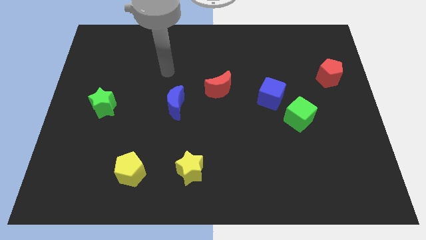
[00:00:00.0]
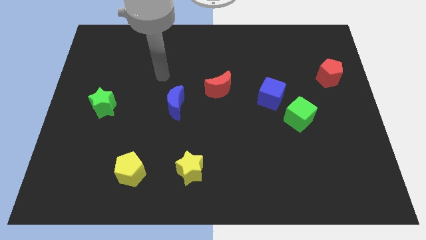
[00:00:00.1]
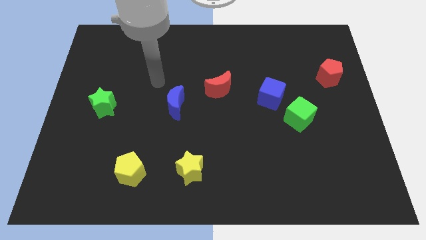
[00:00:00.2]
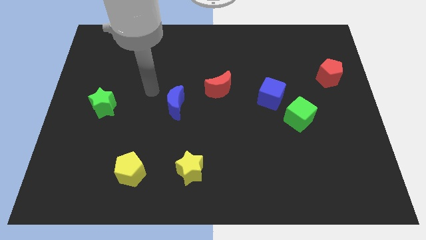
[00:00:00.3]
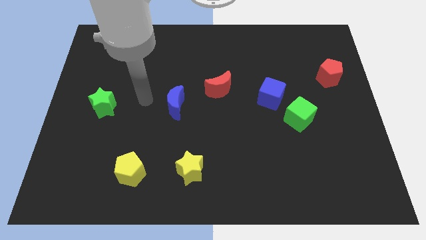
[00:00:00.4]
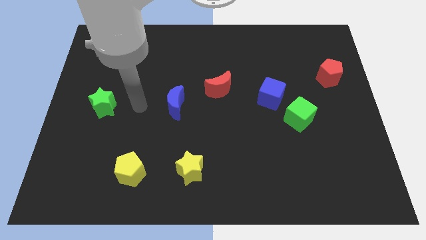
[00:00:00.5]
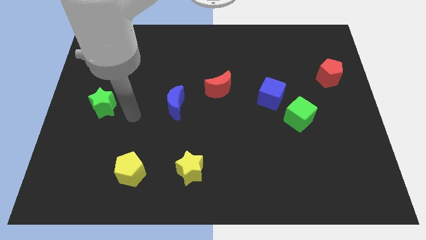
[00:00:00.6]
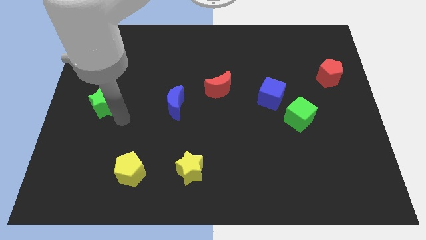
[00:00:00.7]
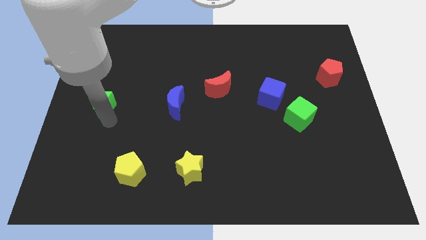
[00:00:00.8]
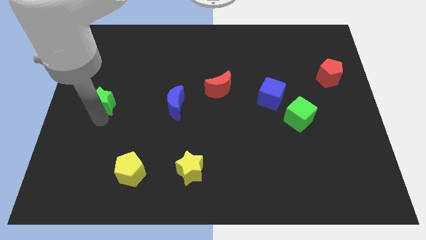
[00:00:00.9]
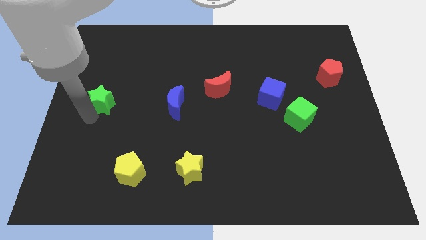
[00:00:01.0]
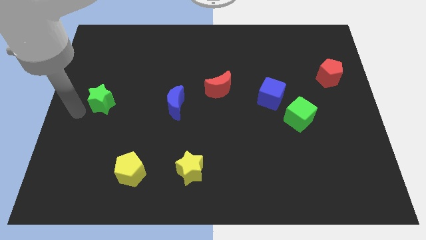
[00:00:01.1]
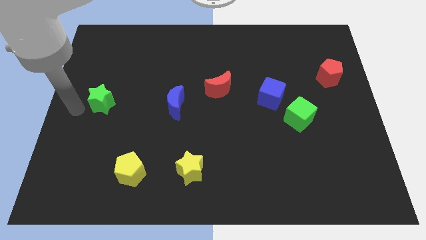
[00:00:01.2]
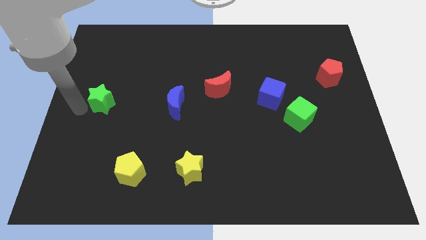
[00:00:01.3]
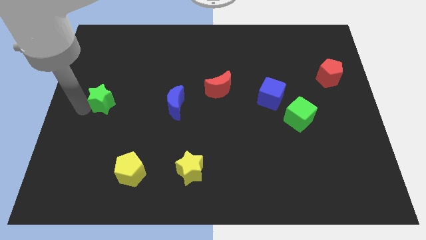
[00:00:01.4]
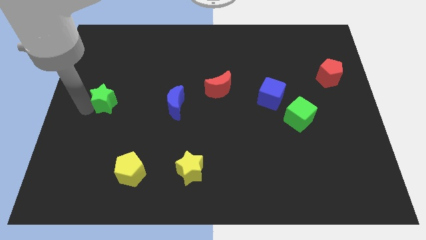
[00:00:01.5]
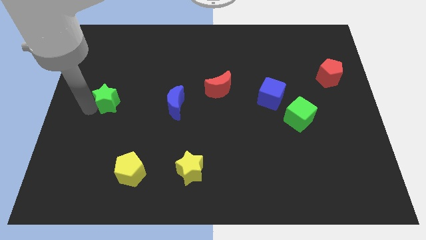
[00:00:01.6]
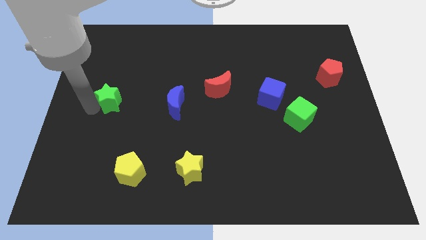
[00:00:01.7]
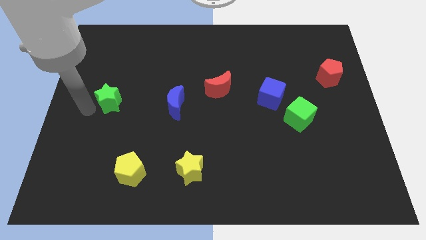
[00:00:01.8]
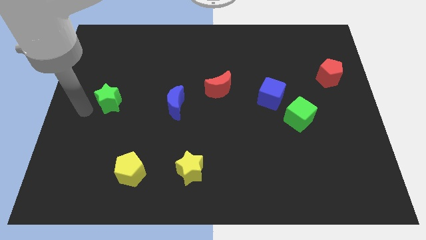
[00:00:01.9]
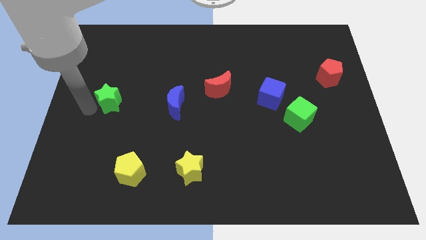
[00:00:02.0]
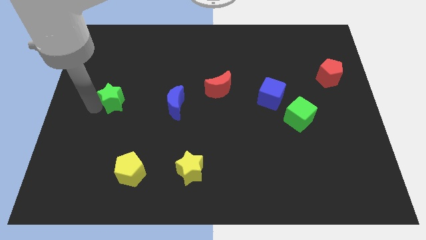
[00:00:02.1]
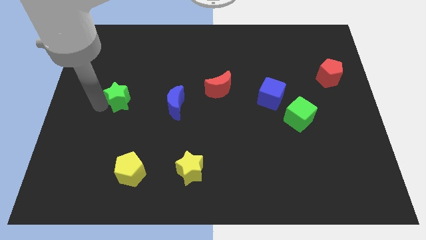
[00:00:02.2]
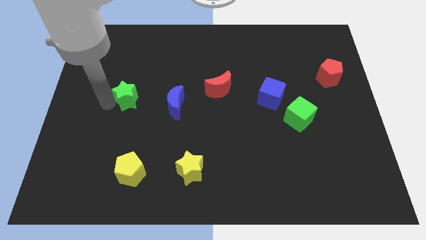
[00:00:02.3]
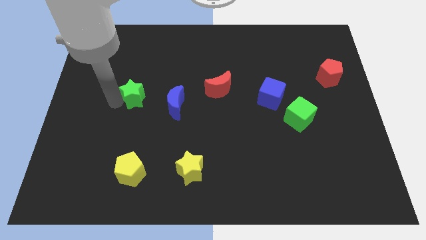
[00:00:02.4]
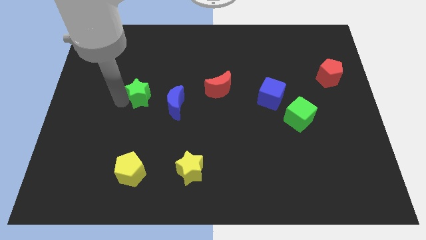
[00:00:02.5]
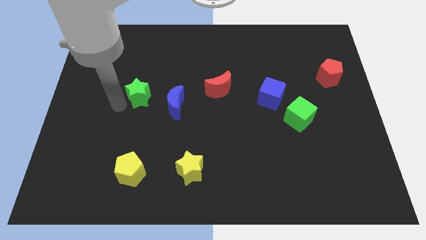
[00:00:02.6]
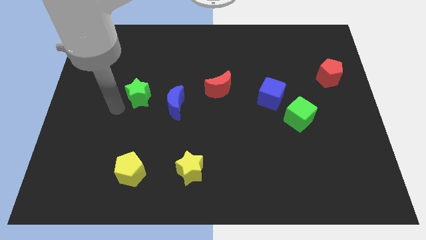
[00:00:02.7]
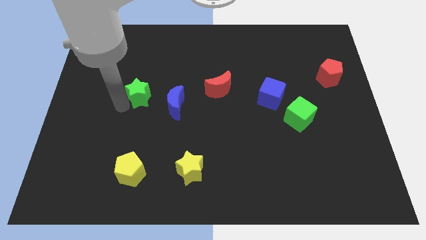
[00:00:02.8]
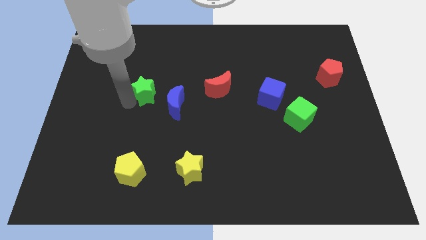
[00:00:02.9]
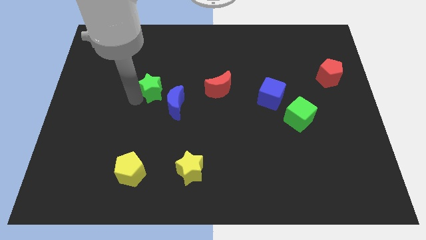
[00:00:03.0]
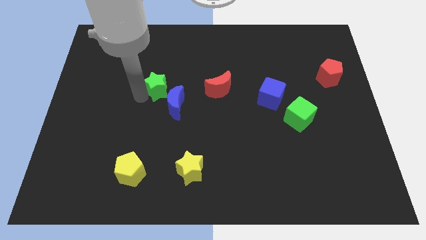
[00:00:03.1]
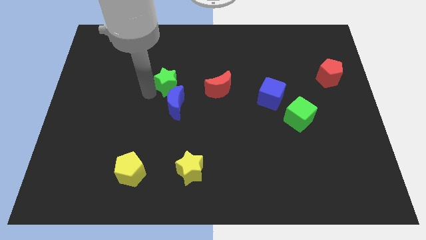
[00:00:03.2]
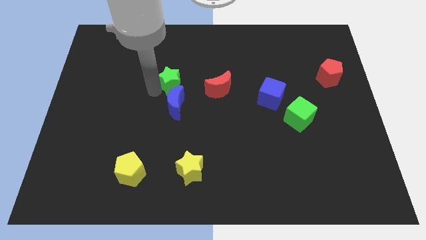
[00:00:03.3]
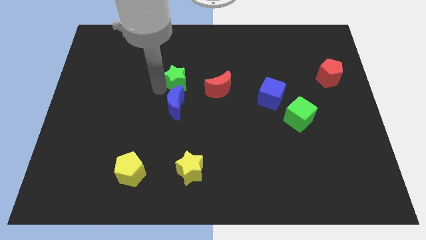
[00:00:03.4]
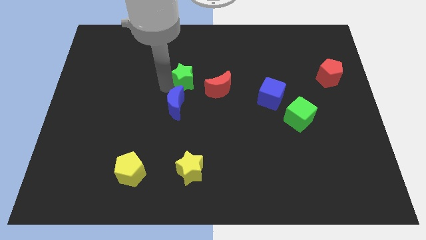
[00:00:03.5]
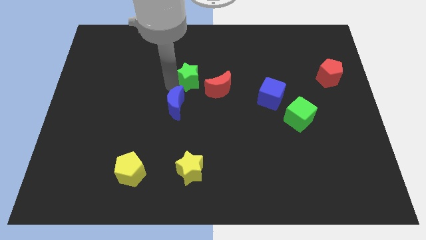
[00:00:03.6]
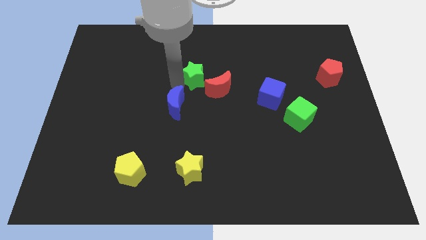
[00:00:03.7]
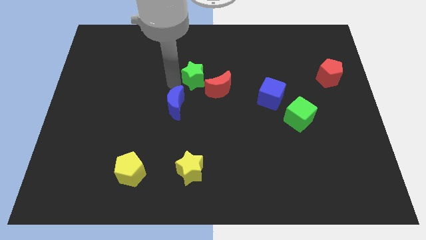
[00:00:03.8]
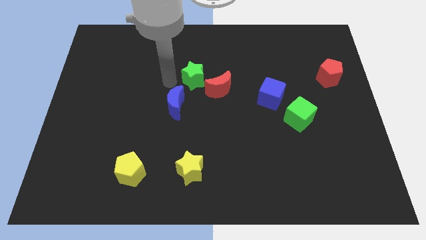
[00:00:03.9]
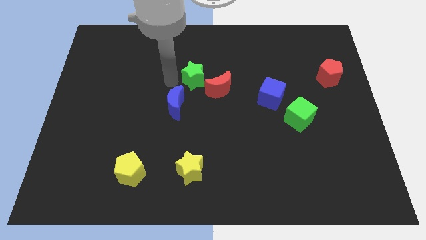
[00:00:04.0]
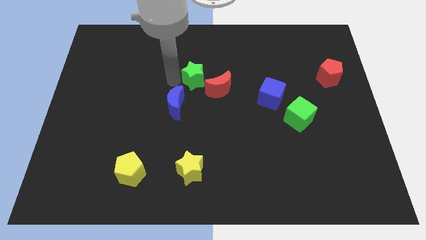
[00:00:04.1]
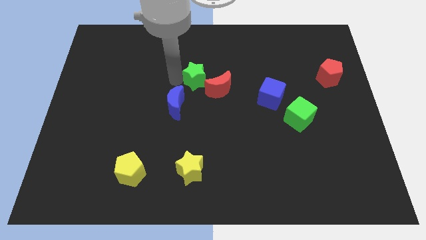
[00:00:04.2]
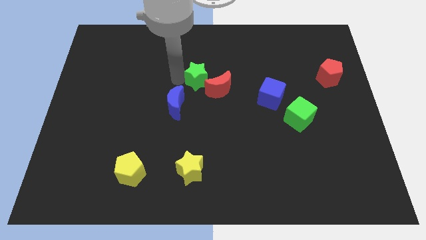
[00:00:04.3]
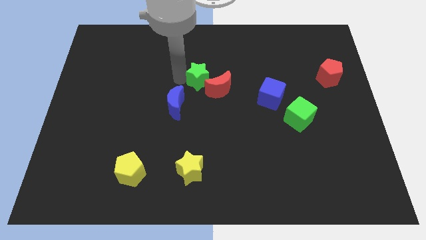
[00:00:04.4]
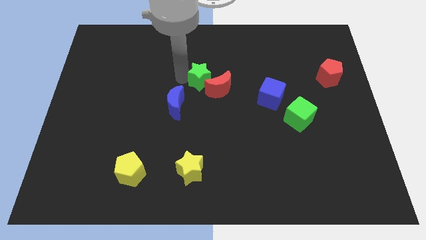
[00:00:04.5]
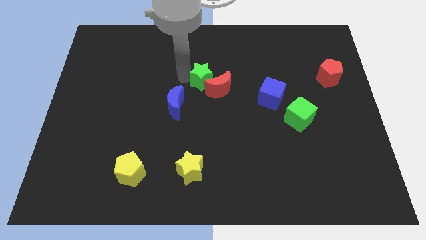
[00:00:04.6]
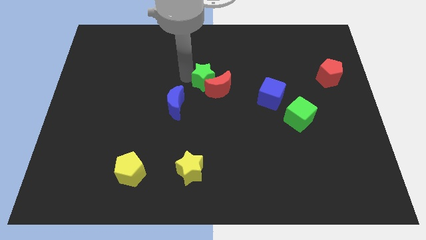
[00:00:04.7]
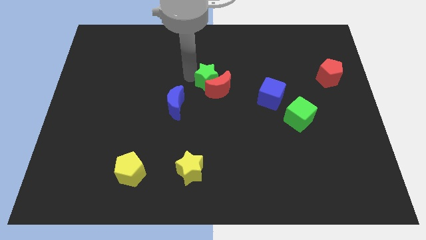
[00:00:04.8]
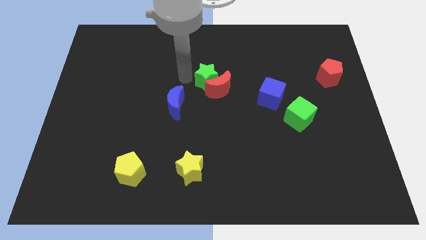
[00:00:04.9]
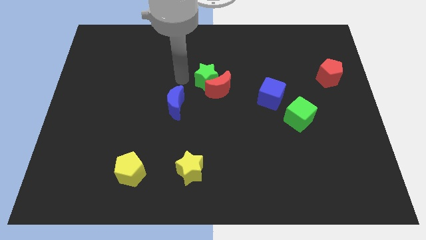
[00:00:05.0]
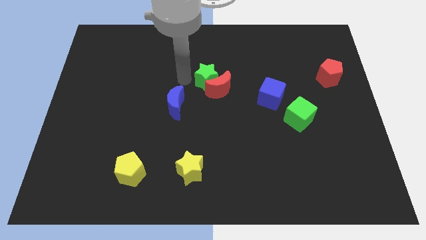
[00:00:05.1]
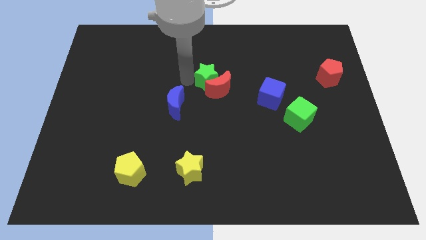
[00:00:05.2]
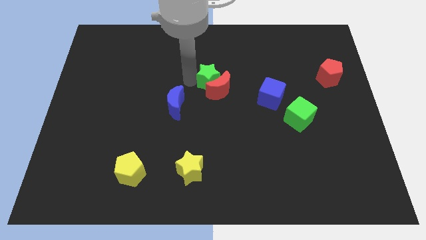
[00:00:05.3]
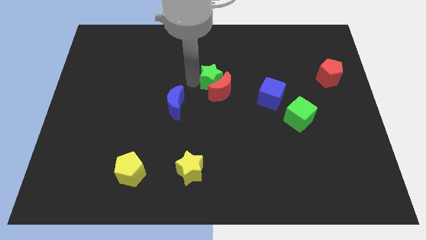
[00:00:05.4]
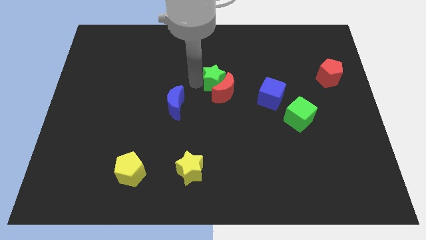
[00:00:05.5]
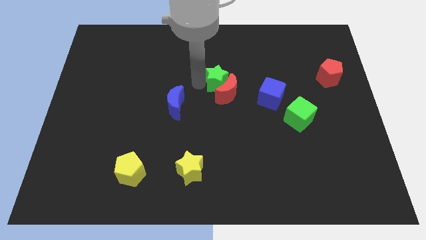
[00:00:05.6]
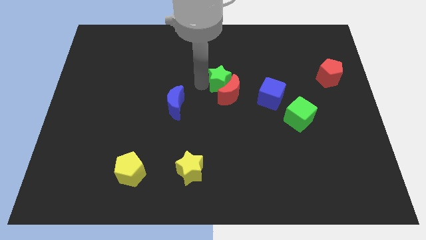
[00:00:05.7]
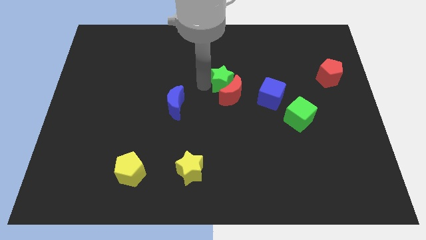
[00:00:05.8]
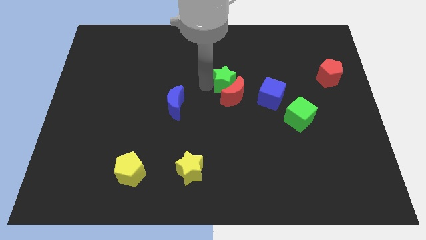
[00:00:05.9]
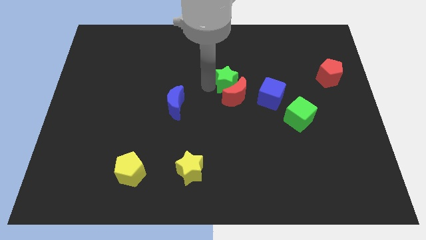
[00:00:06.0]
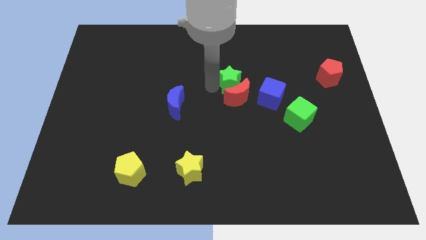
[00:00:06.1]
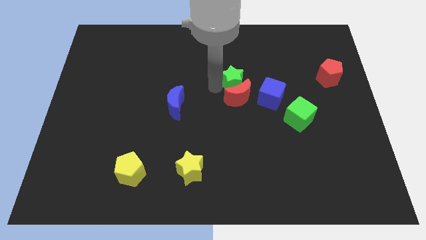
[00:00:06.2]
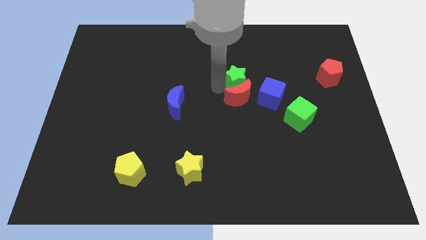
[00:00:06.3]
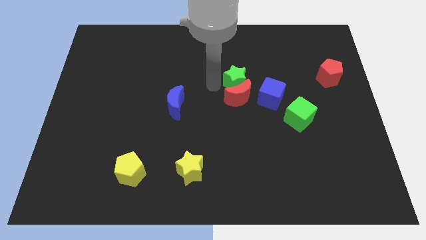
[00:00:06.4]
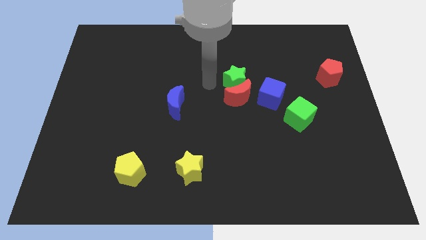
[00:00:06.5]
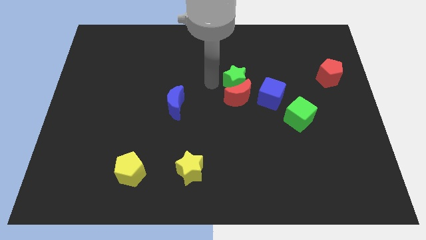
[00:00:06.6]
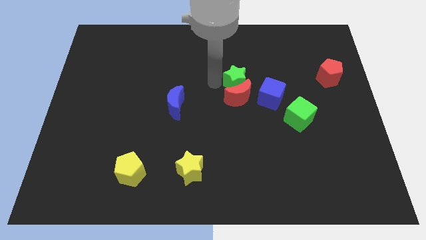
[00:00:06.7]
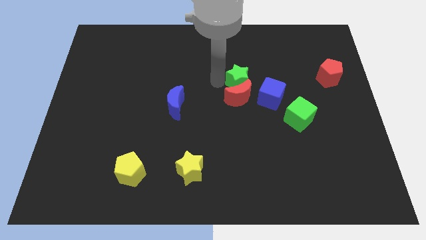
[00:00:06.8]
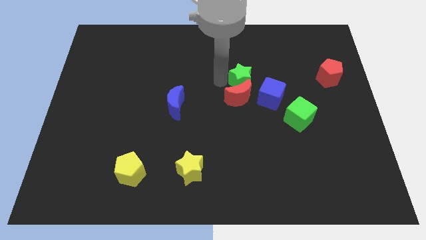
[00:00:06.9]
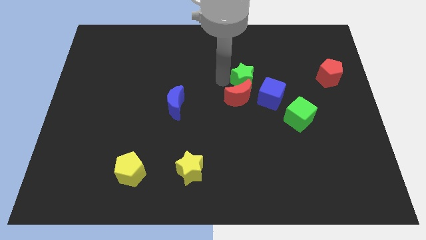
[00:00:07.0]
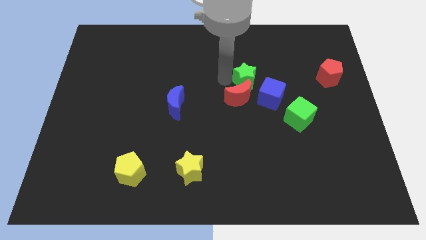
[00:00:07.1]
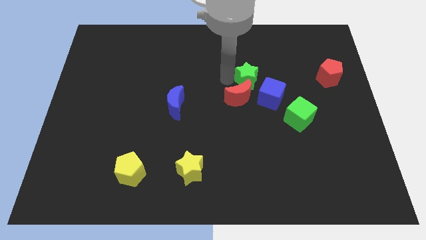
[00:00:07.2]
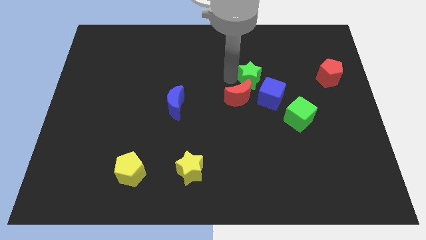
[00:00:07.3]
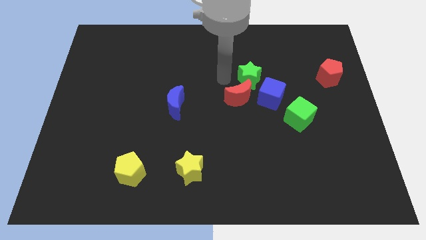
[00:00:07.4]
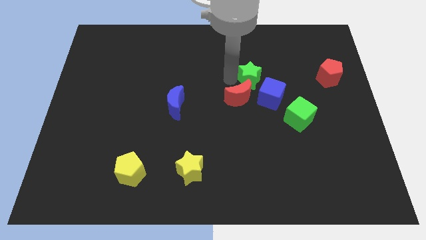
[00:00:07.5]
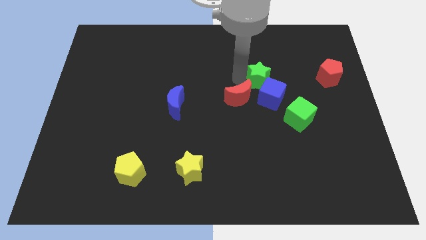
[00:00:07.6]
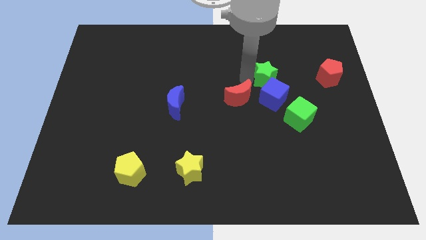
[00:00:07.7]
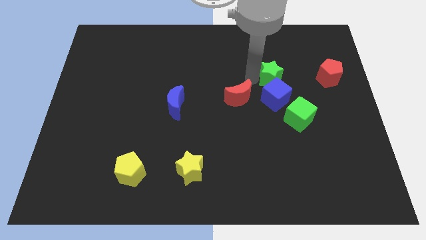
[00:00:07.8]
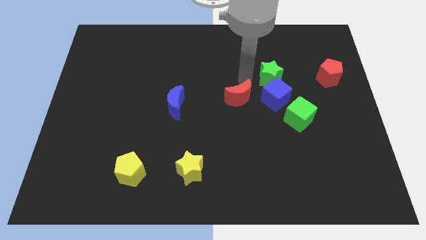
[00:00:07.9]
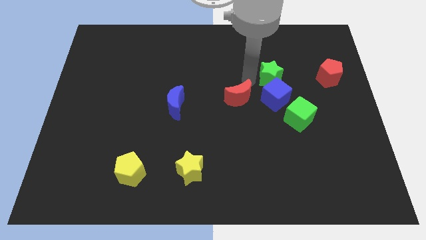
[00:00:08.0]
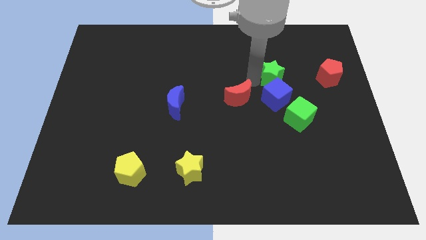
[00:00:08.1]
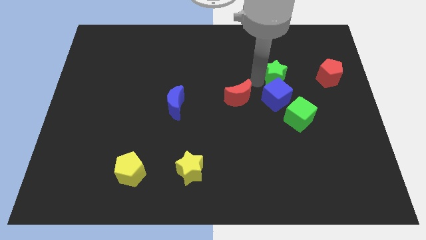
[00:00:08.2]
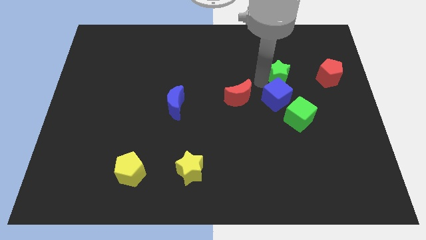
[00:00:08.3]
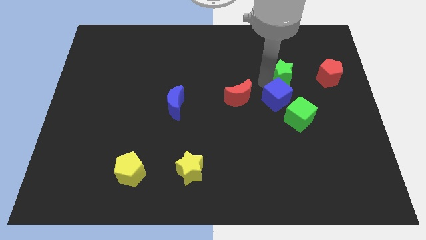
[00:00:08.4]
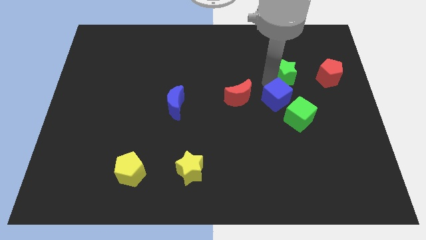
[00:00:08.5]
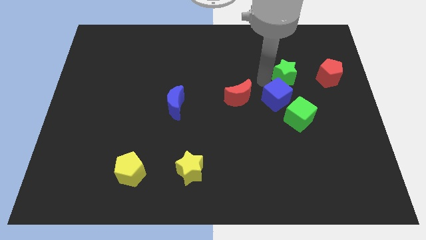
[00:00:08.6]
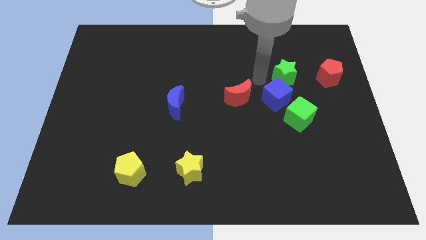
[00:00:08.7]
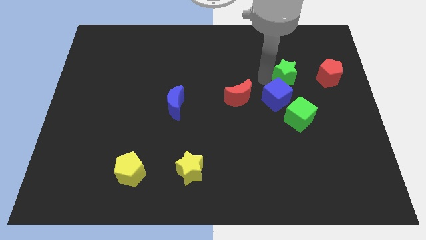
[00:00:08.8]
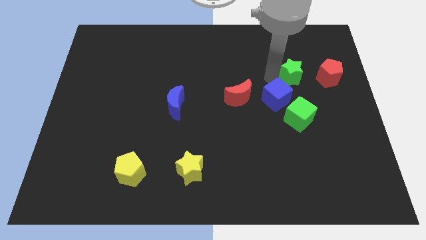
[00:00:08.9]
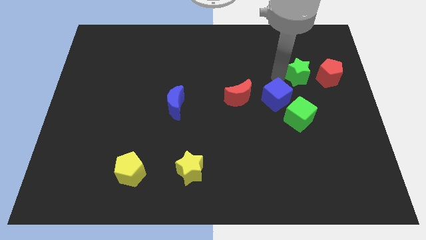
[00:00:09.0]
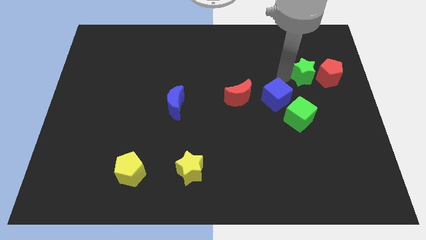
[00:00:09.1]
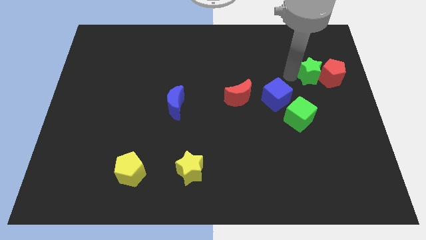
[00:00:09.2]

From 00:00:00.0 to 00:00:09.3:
put the green star next to the red pentagon
